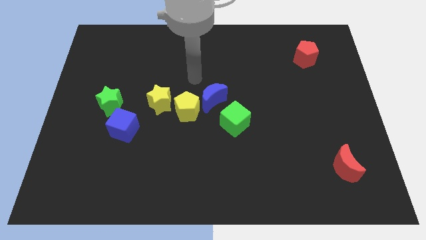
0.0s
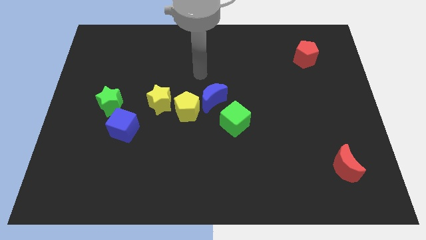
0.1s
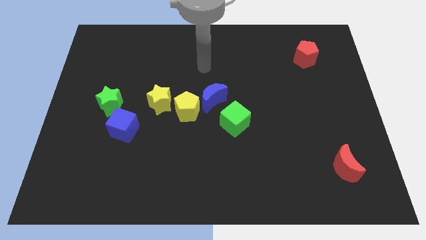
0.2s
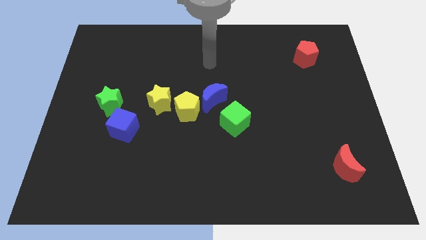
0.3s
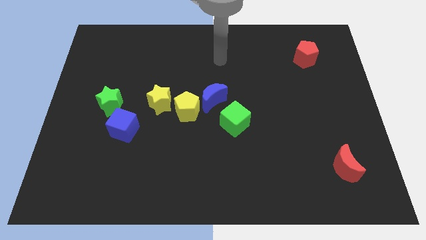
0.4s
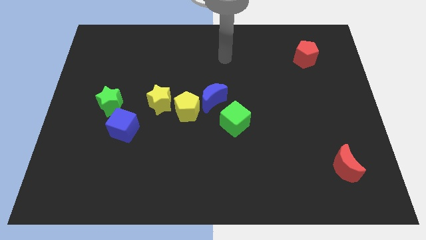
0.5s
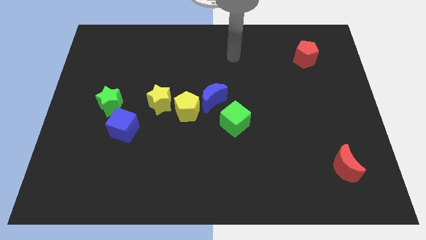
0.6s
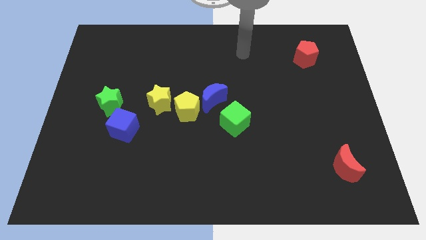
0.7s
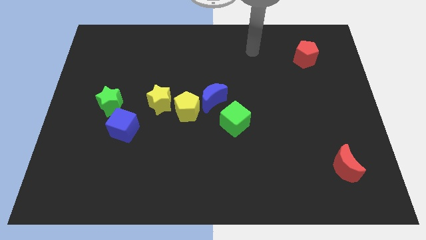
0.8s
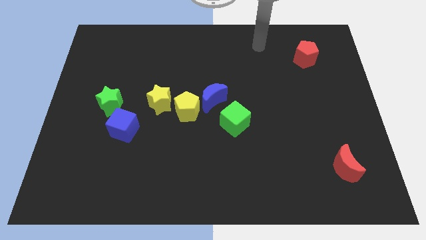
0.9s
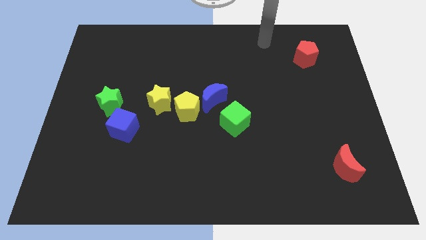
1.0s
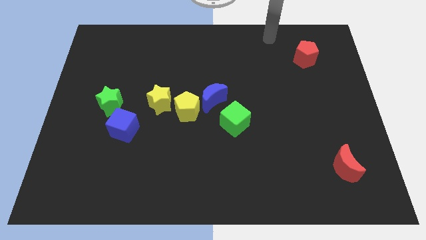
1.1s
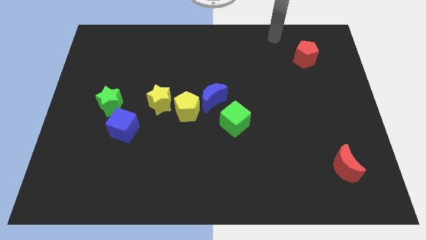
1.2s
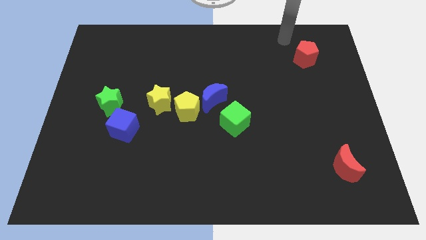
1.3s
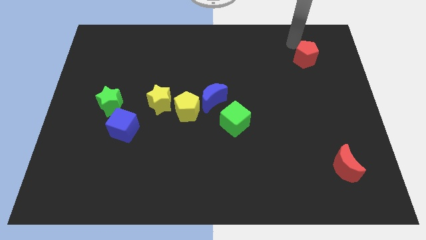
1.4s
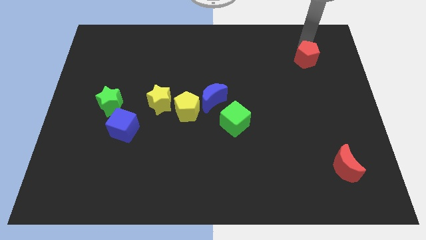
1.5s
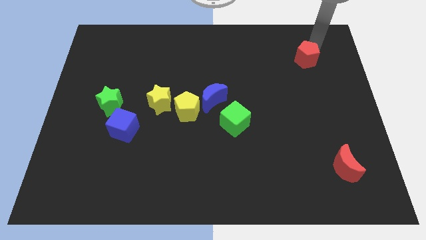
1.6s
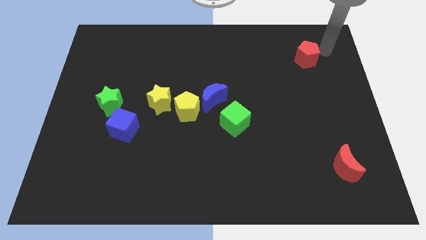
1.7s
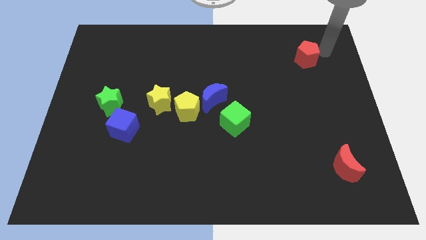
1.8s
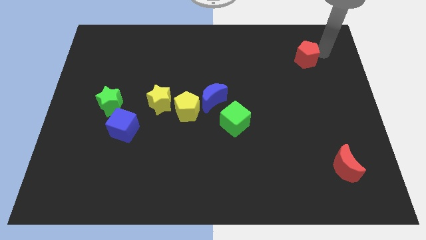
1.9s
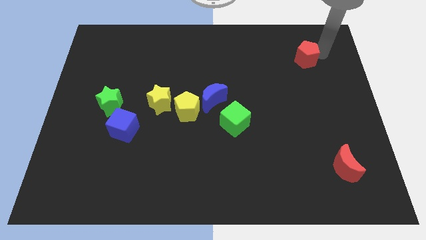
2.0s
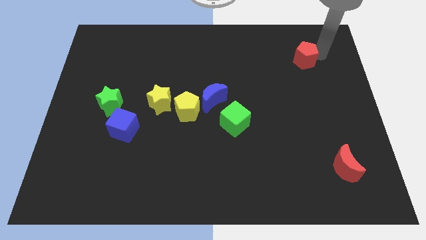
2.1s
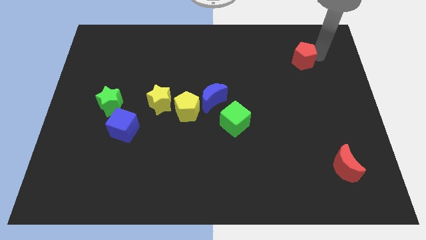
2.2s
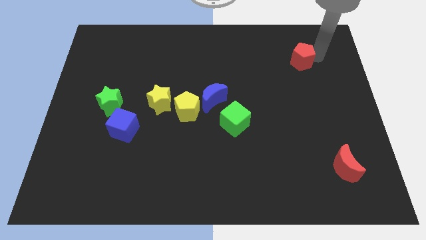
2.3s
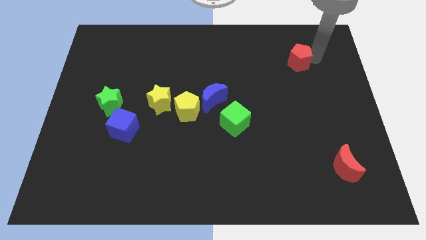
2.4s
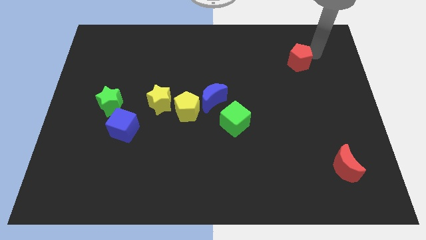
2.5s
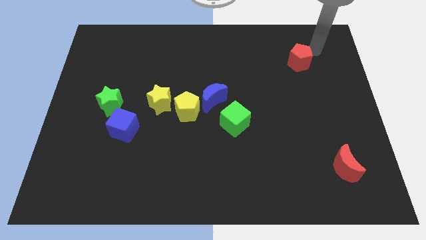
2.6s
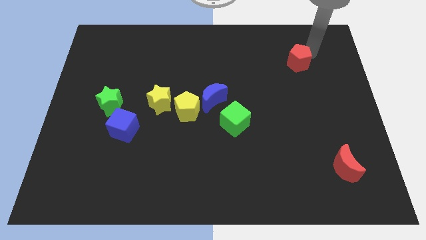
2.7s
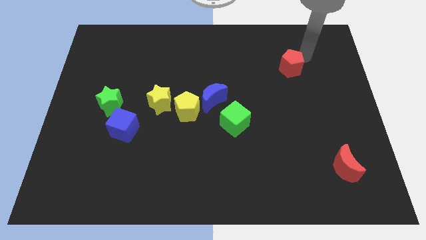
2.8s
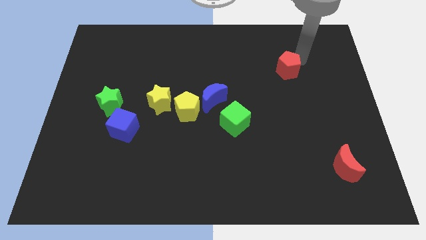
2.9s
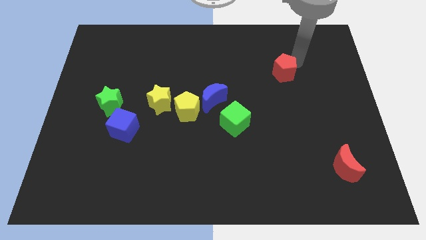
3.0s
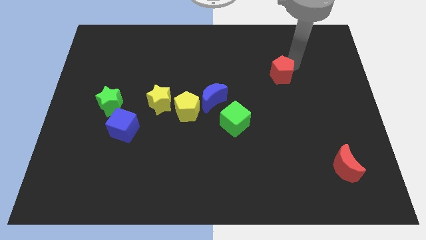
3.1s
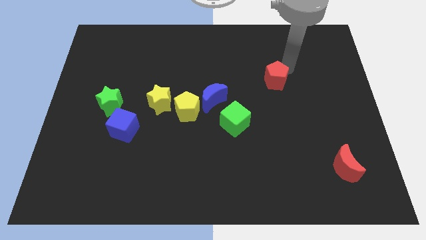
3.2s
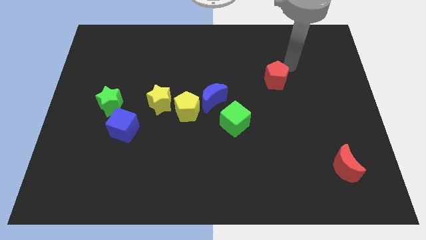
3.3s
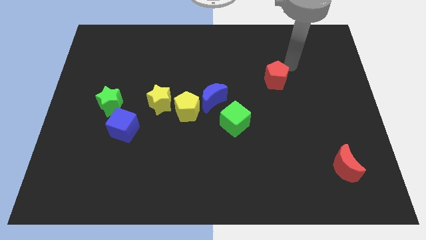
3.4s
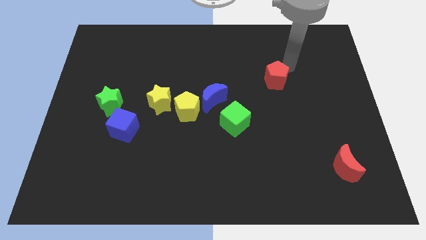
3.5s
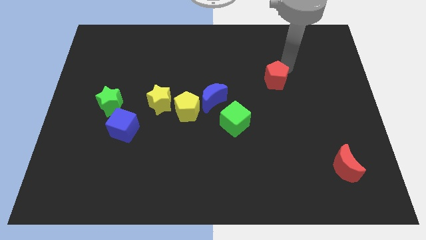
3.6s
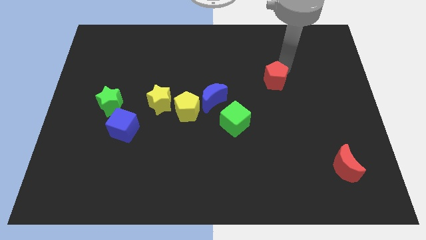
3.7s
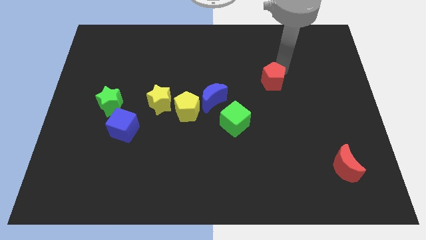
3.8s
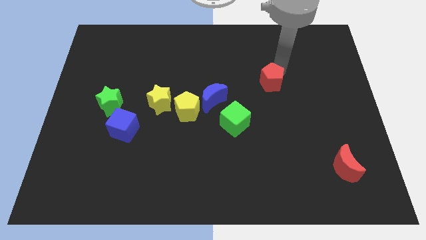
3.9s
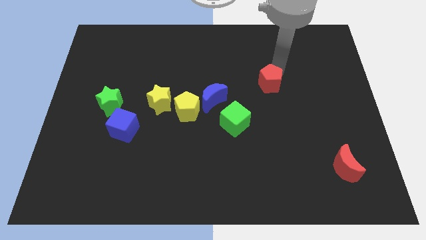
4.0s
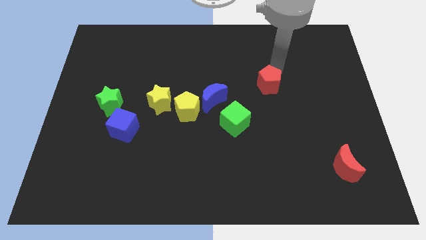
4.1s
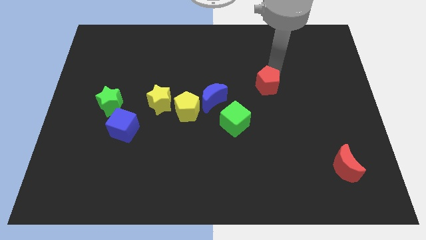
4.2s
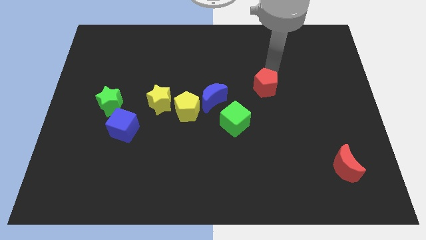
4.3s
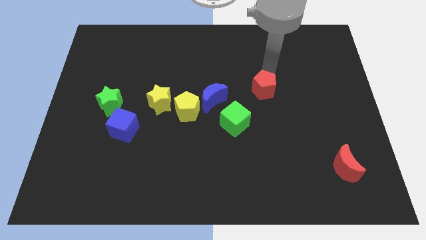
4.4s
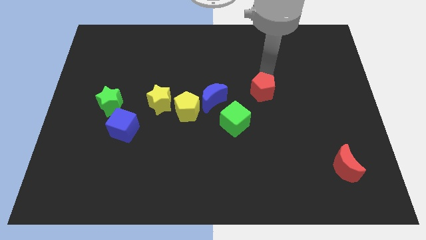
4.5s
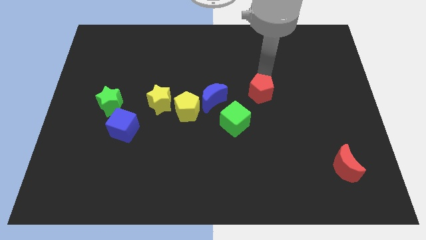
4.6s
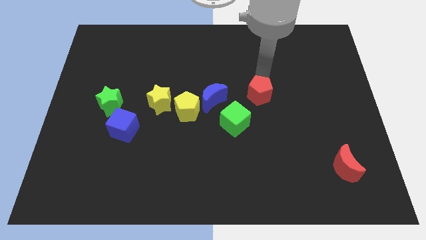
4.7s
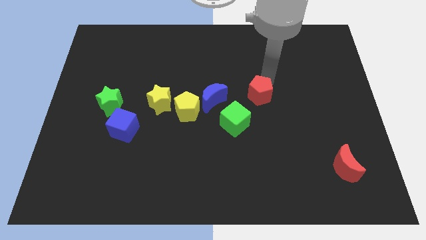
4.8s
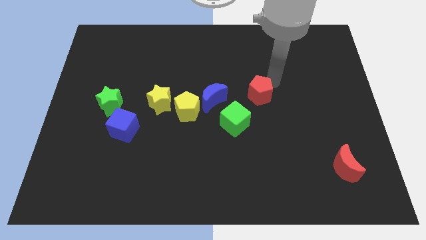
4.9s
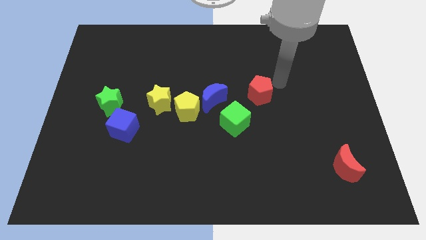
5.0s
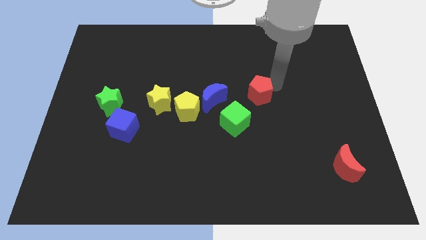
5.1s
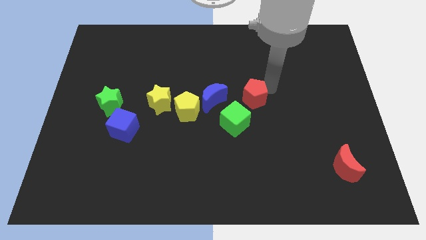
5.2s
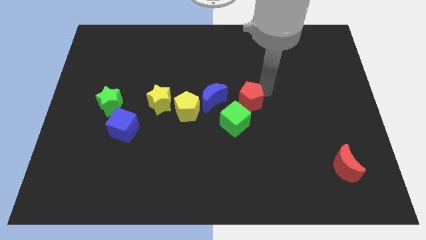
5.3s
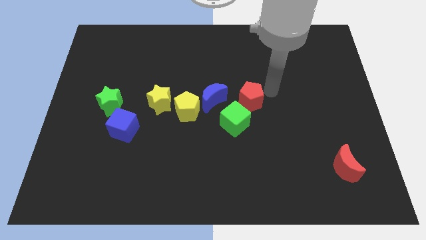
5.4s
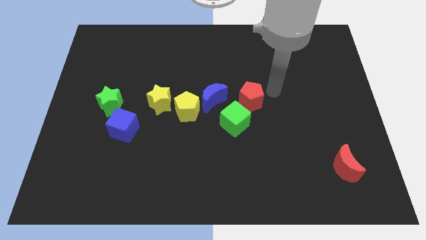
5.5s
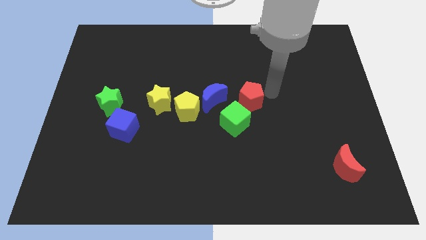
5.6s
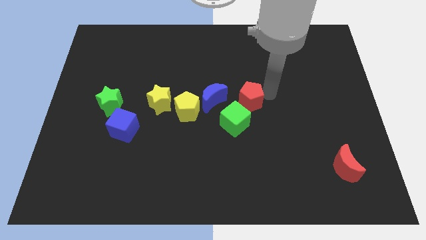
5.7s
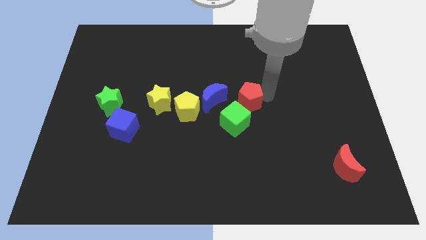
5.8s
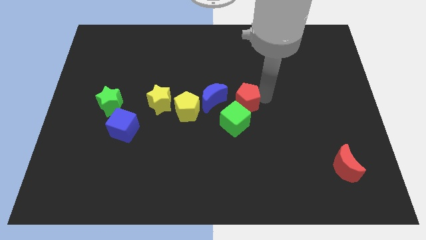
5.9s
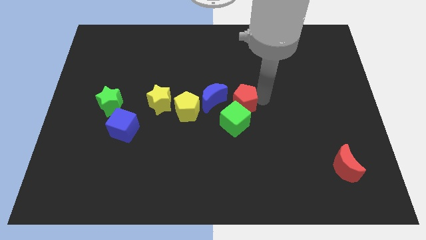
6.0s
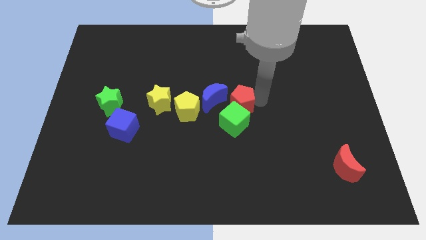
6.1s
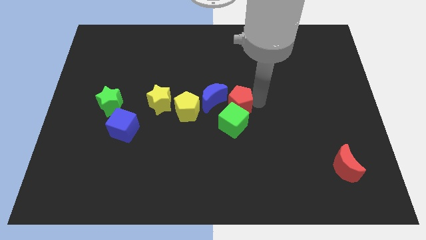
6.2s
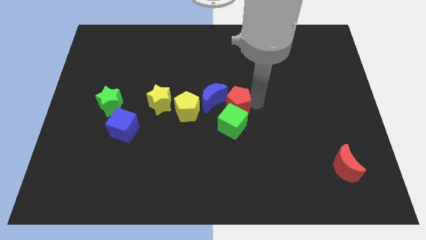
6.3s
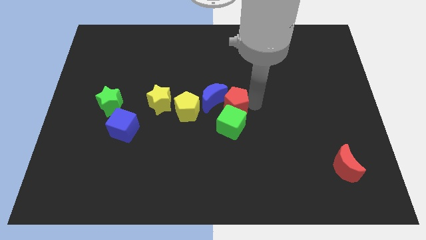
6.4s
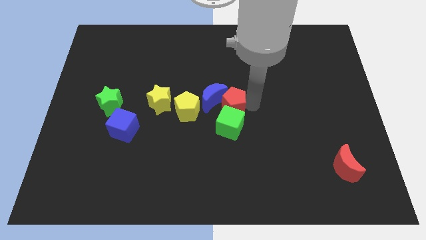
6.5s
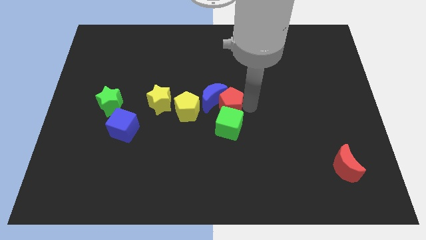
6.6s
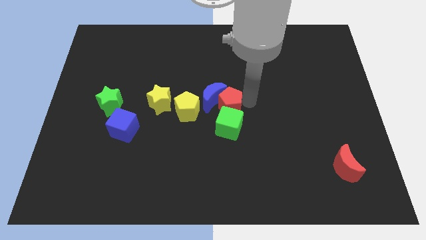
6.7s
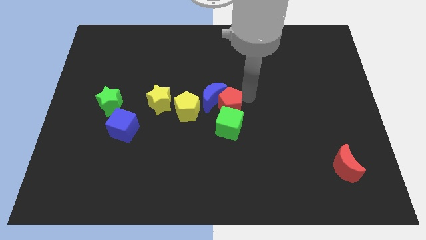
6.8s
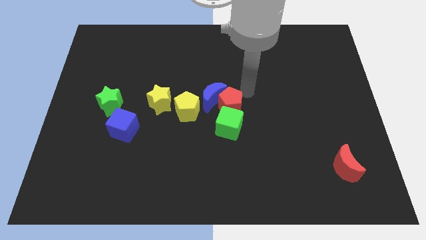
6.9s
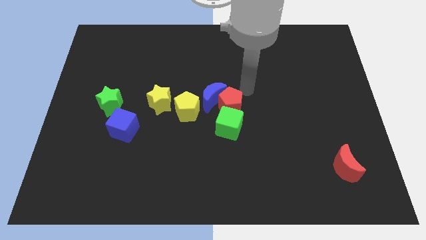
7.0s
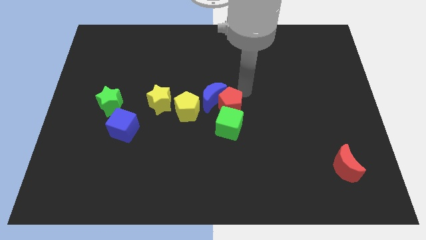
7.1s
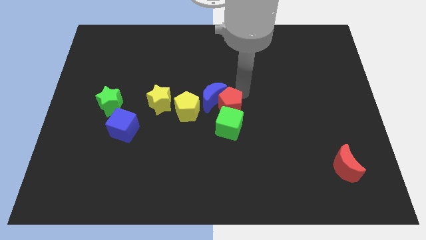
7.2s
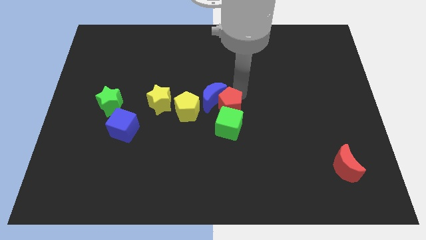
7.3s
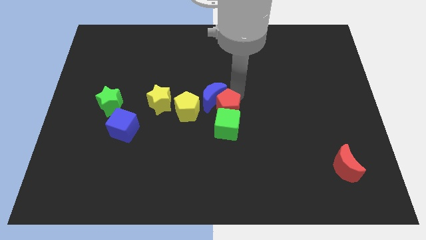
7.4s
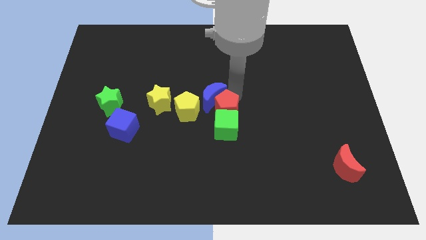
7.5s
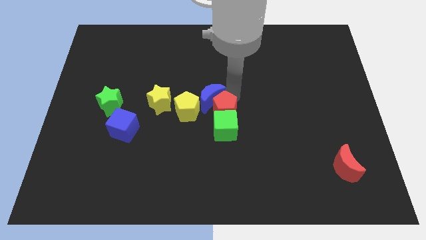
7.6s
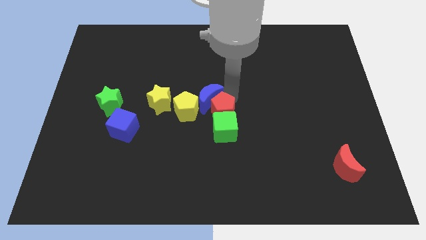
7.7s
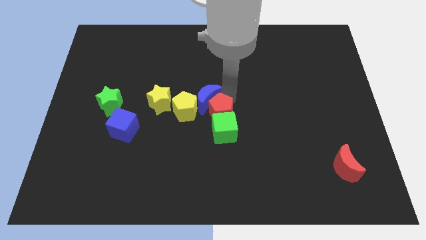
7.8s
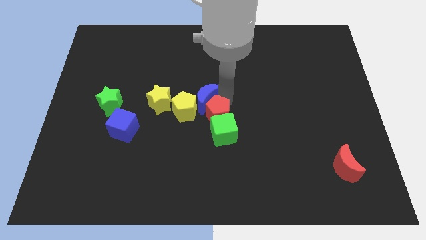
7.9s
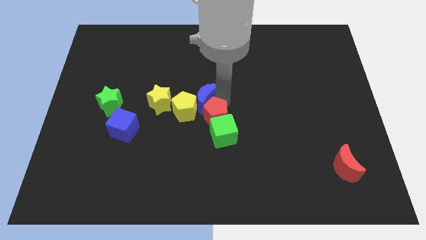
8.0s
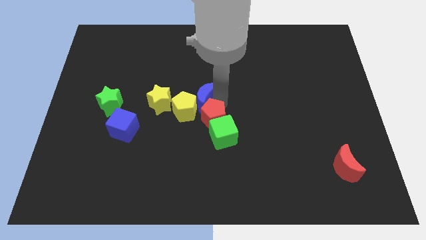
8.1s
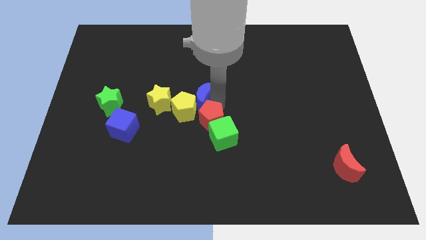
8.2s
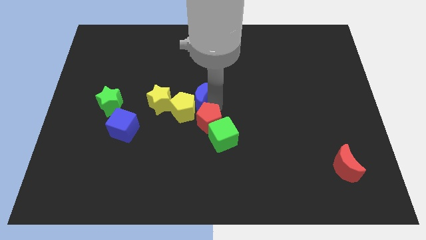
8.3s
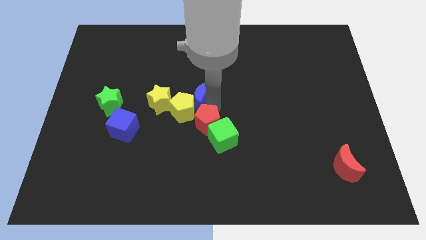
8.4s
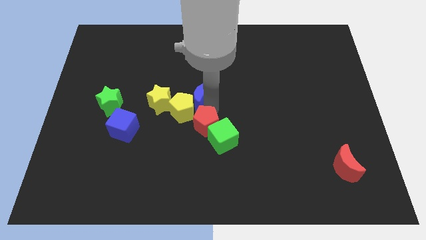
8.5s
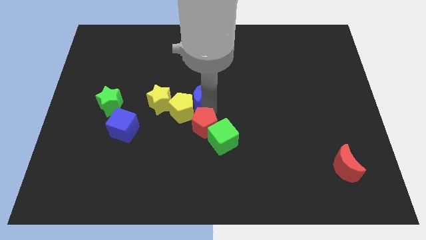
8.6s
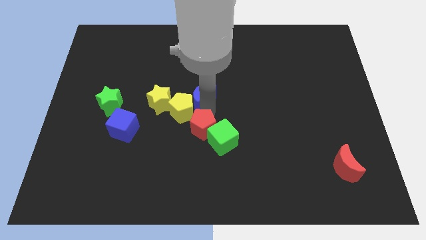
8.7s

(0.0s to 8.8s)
put the red pentagon to the bottom of the yellow pentagon
